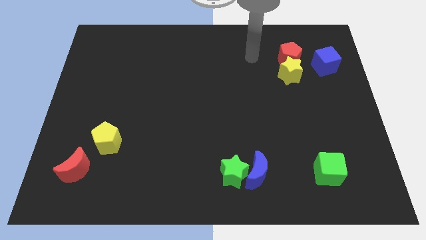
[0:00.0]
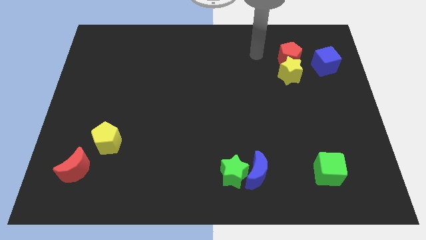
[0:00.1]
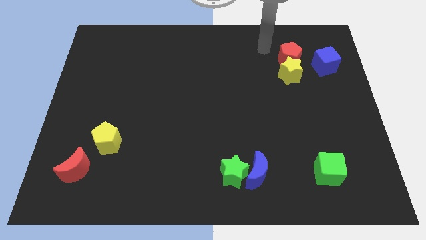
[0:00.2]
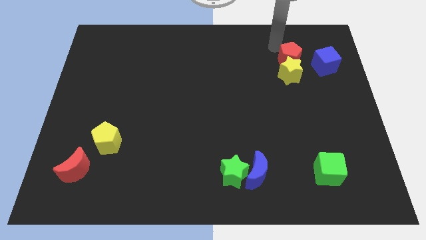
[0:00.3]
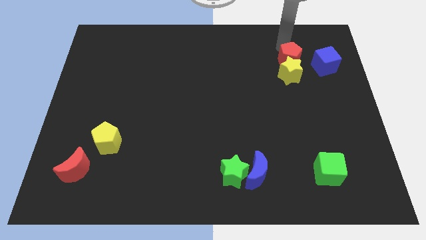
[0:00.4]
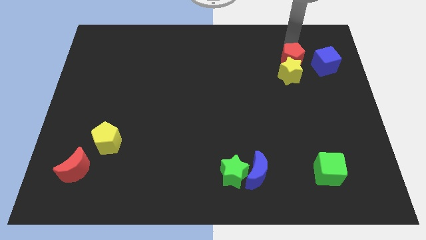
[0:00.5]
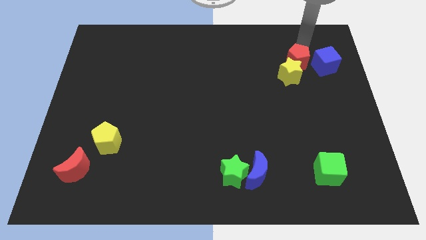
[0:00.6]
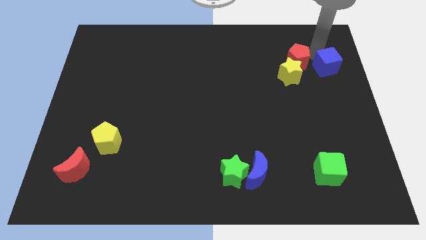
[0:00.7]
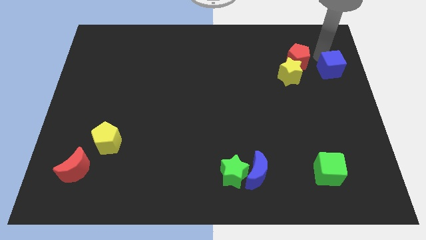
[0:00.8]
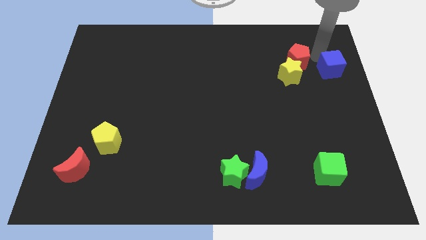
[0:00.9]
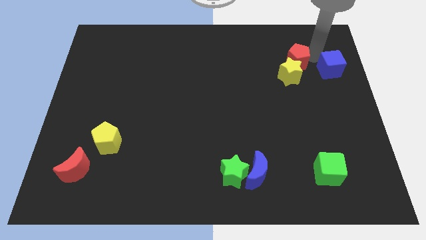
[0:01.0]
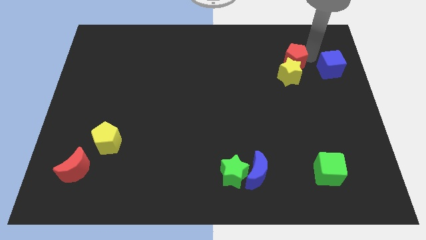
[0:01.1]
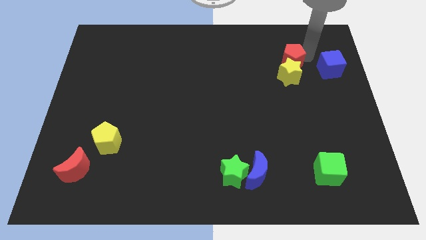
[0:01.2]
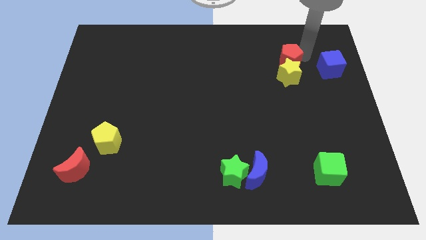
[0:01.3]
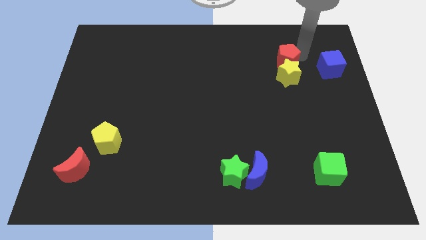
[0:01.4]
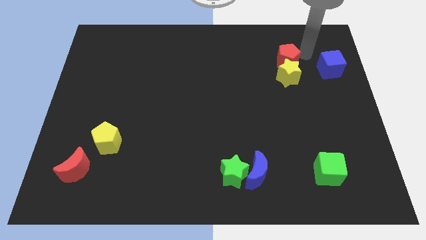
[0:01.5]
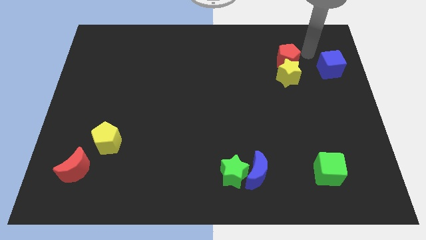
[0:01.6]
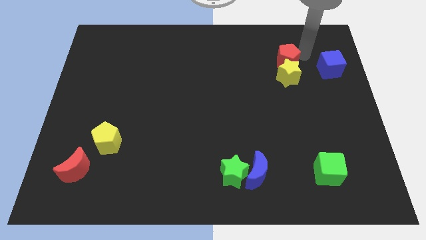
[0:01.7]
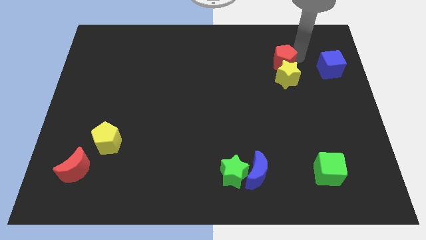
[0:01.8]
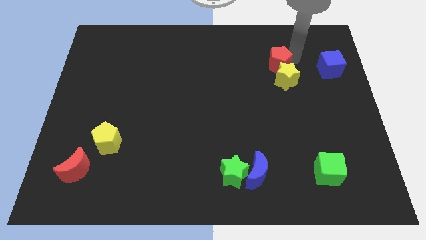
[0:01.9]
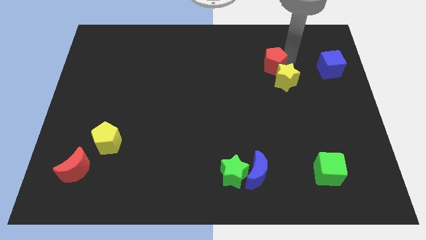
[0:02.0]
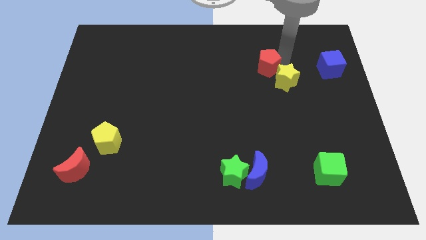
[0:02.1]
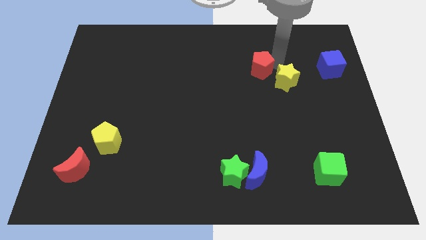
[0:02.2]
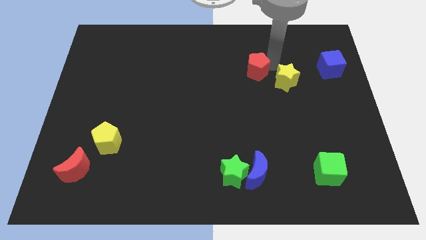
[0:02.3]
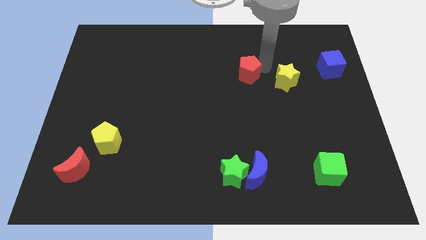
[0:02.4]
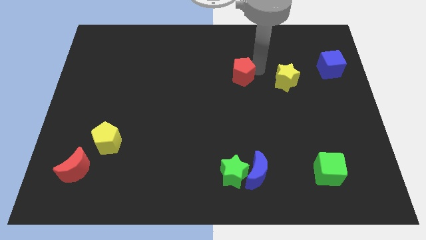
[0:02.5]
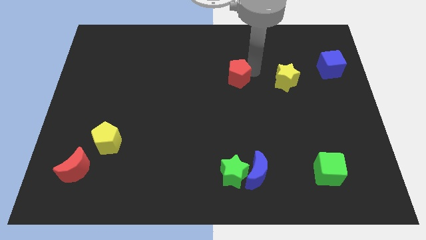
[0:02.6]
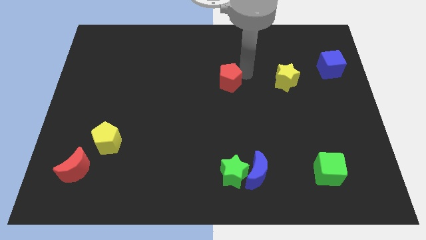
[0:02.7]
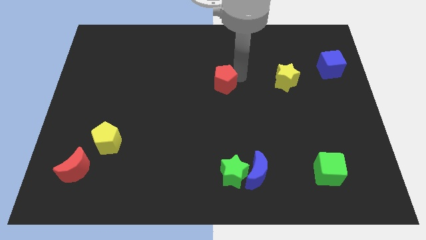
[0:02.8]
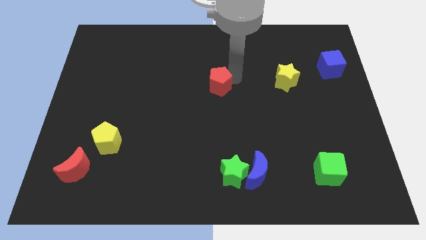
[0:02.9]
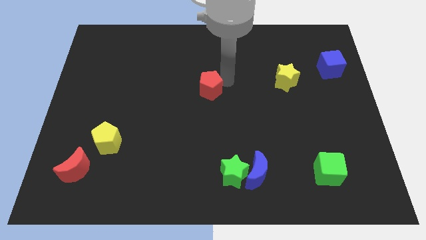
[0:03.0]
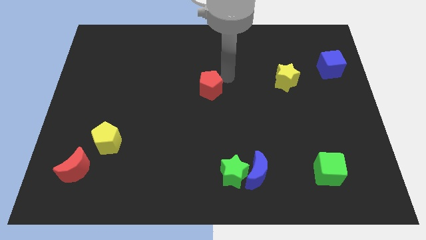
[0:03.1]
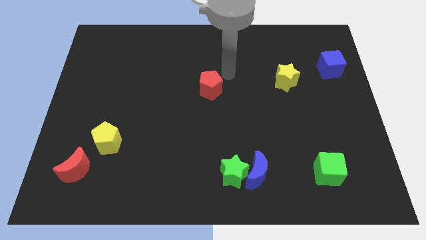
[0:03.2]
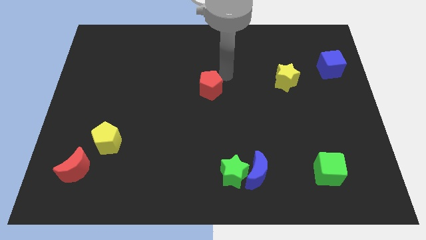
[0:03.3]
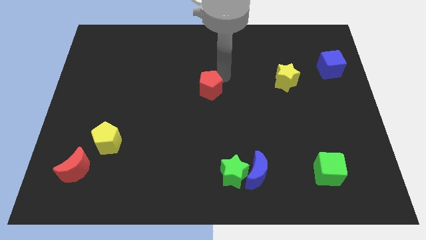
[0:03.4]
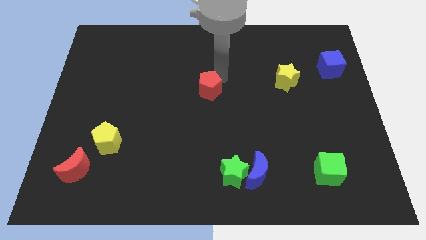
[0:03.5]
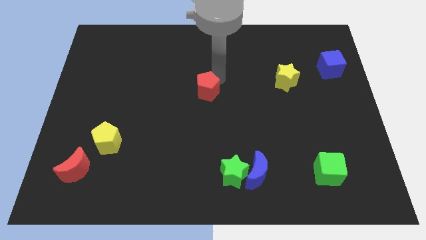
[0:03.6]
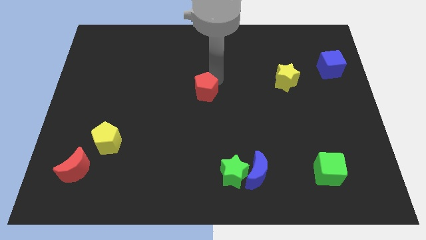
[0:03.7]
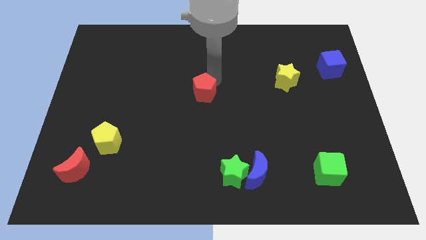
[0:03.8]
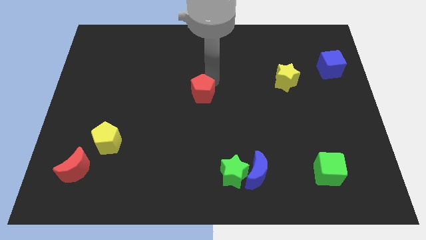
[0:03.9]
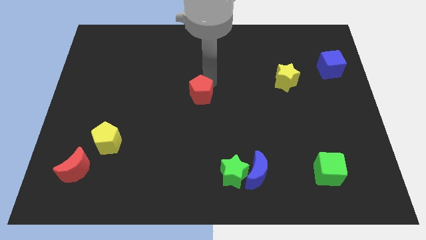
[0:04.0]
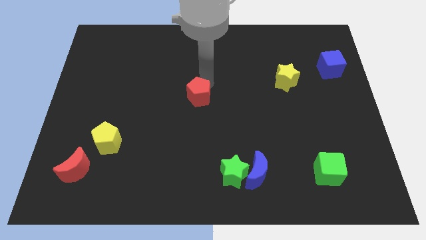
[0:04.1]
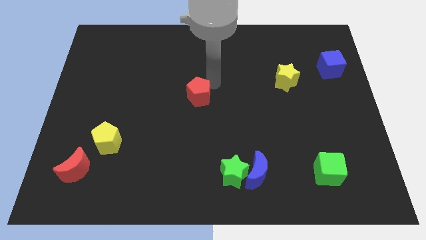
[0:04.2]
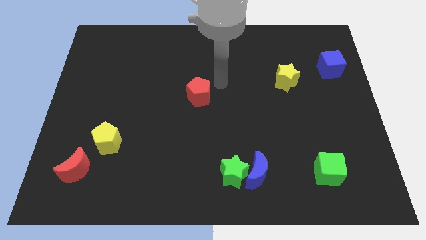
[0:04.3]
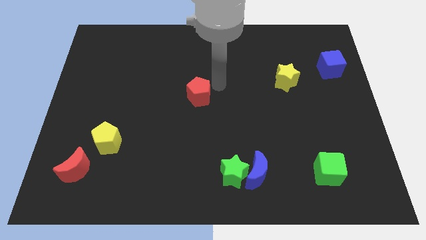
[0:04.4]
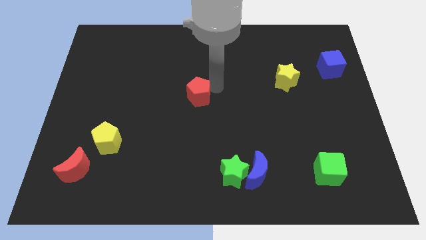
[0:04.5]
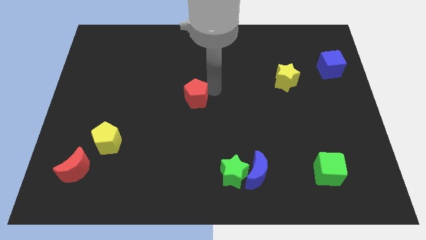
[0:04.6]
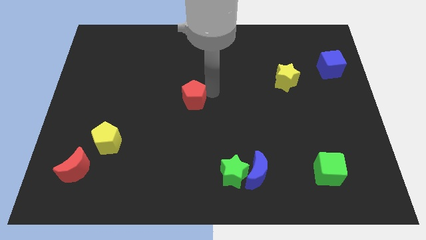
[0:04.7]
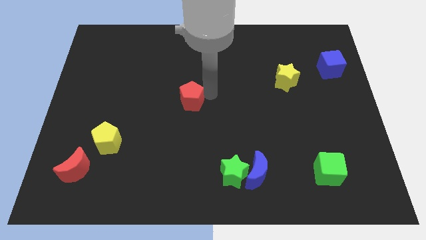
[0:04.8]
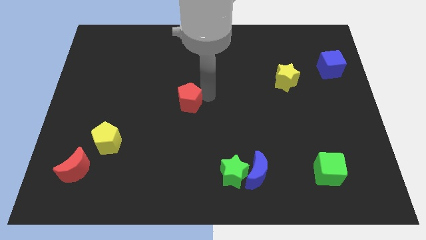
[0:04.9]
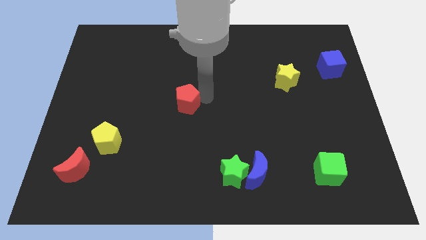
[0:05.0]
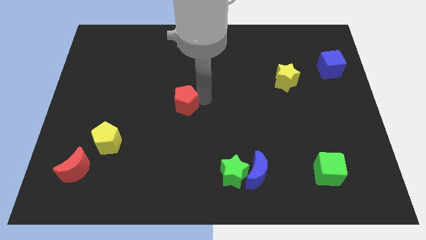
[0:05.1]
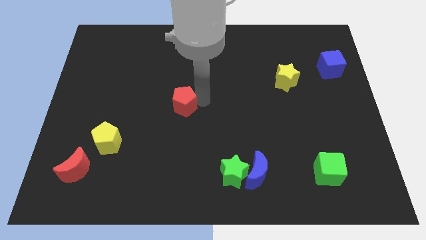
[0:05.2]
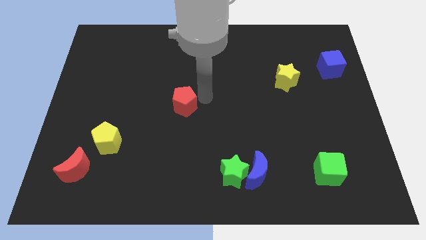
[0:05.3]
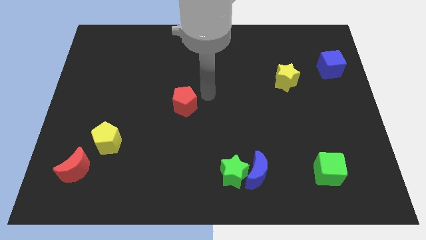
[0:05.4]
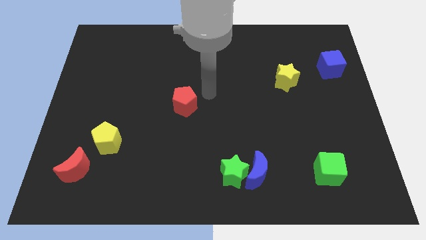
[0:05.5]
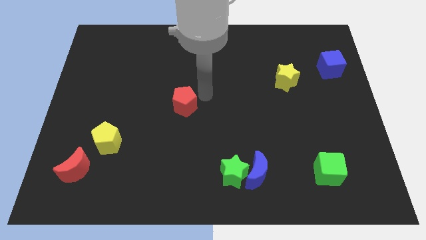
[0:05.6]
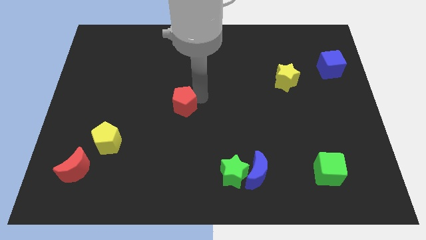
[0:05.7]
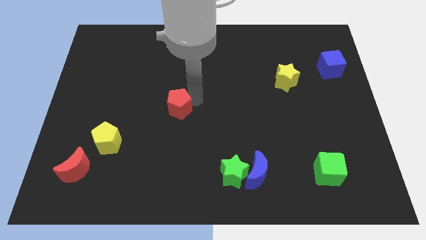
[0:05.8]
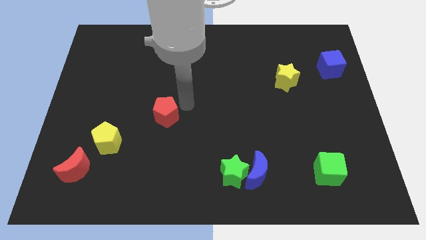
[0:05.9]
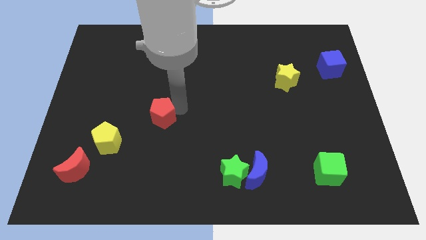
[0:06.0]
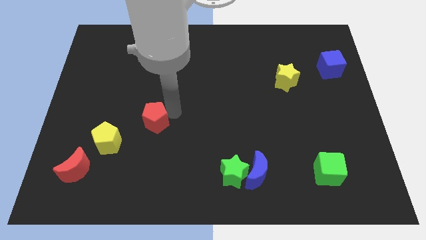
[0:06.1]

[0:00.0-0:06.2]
move the red pentagon diagonally up and to the right of the yellow pentagon

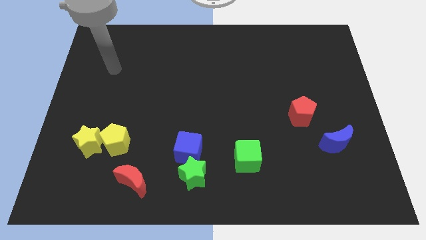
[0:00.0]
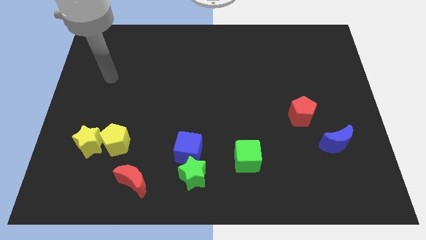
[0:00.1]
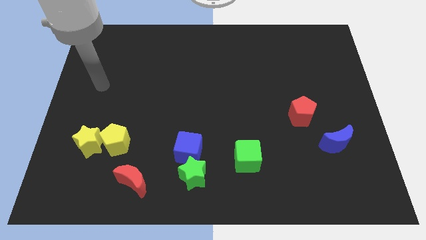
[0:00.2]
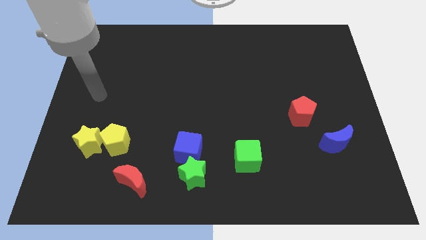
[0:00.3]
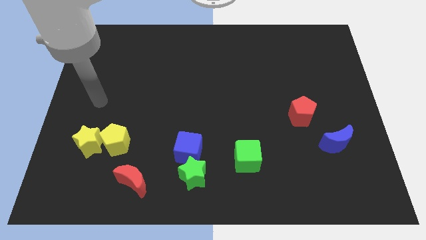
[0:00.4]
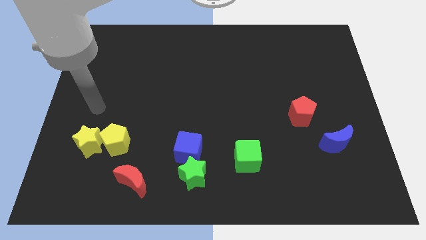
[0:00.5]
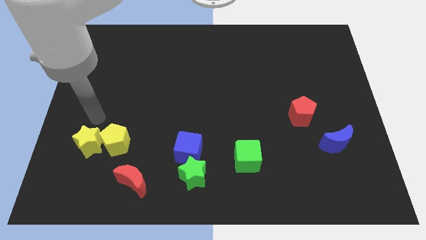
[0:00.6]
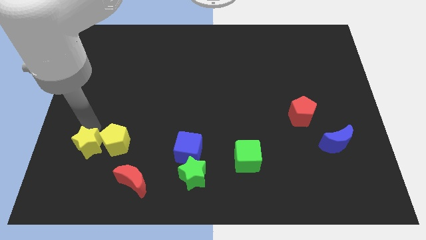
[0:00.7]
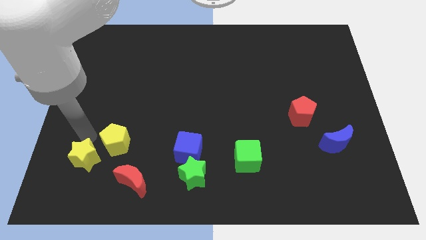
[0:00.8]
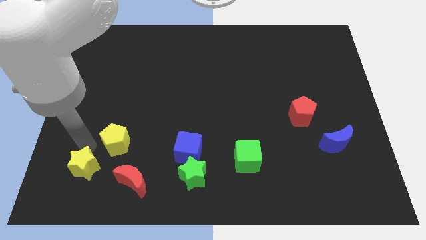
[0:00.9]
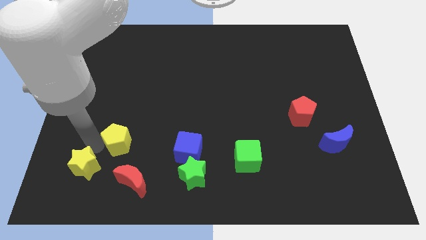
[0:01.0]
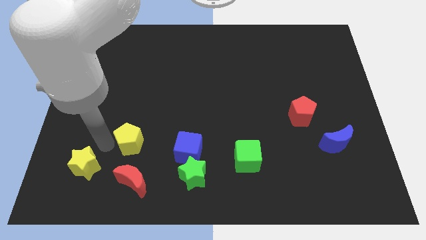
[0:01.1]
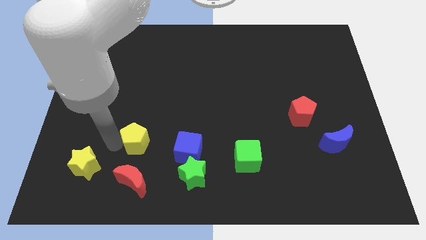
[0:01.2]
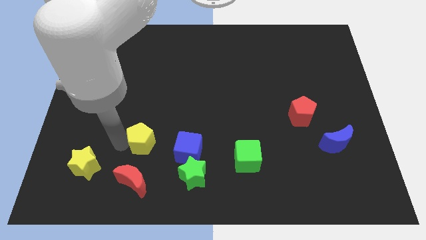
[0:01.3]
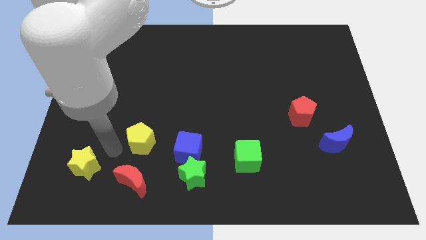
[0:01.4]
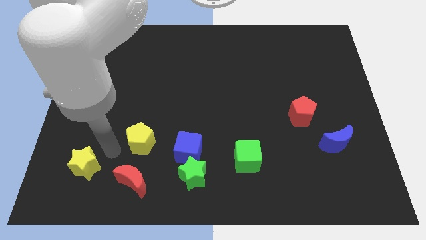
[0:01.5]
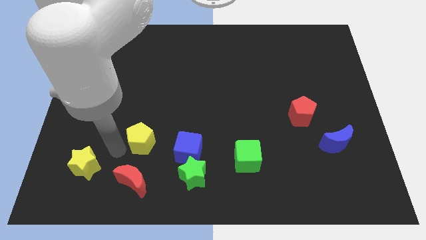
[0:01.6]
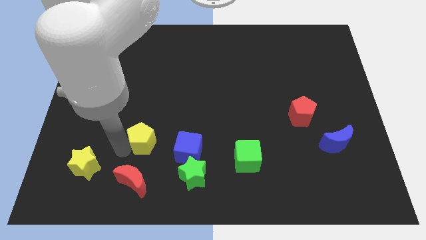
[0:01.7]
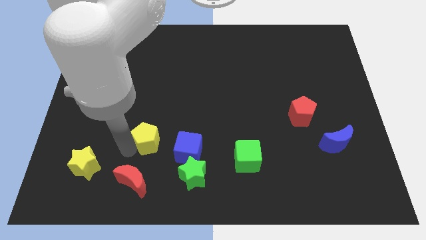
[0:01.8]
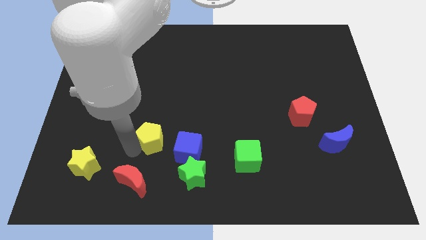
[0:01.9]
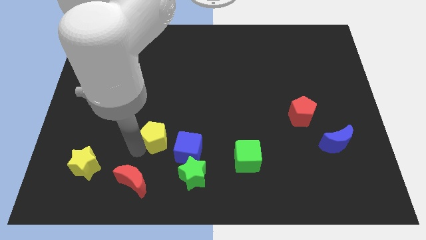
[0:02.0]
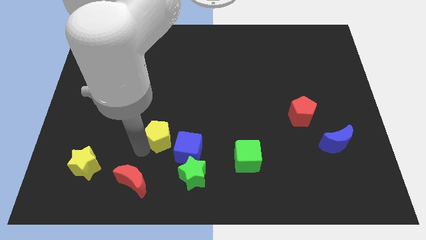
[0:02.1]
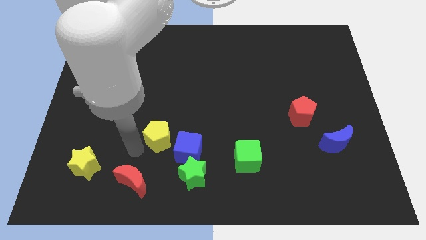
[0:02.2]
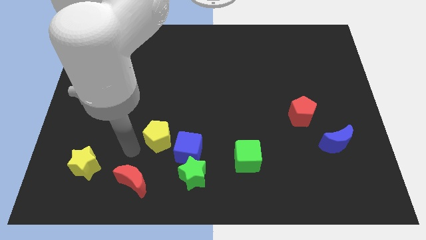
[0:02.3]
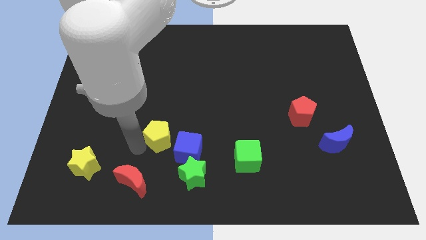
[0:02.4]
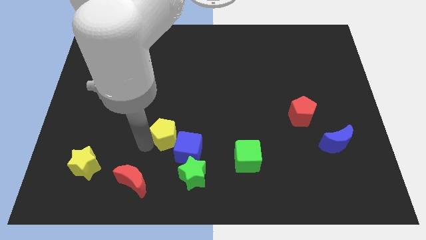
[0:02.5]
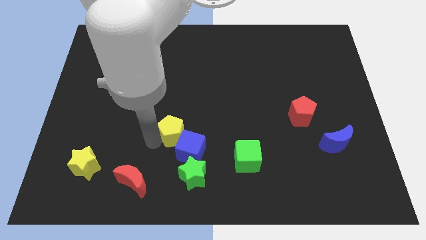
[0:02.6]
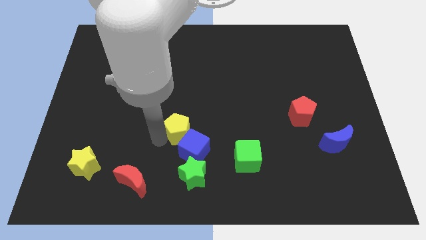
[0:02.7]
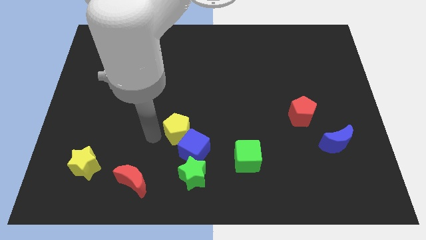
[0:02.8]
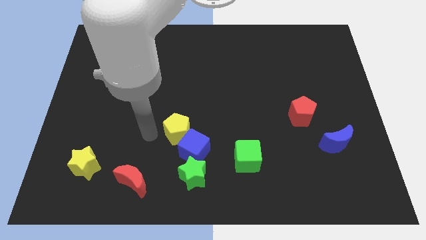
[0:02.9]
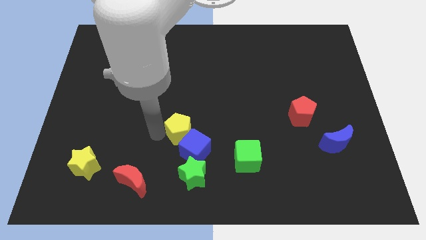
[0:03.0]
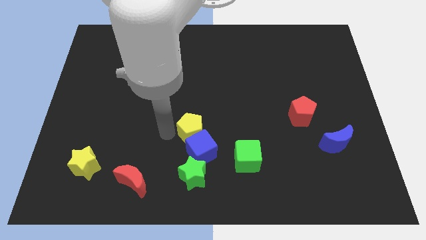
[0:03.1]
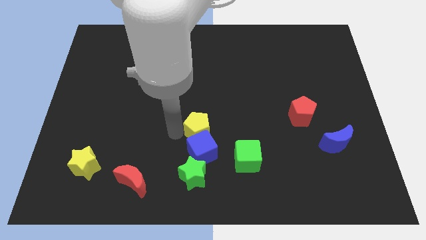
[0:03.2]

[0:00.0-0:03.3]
put the yellow pentagon diagonally up and to the right of the blue cube
